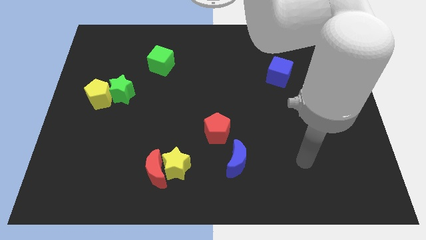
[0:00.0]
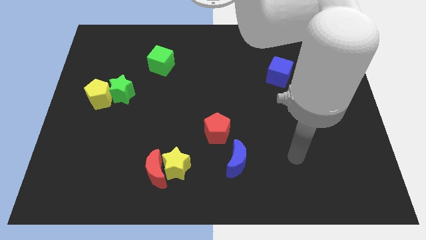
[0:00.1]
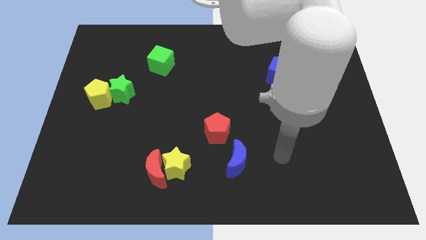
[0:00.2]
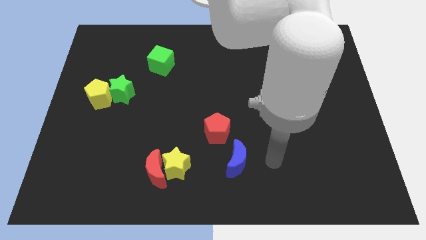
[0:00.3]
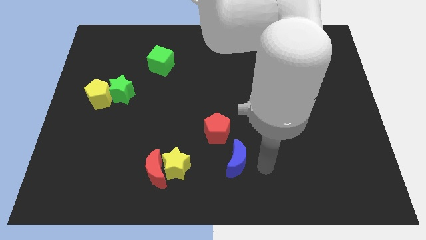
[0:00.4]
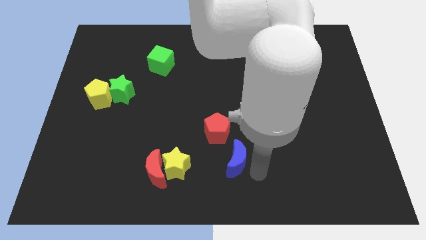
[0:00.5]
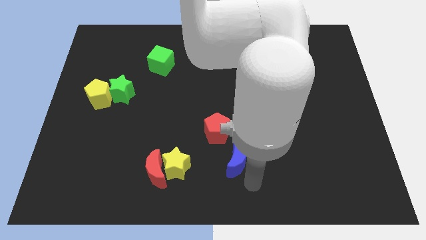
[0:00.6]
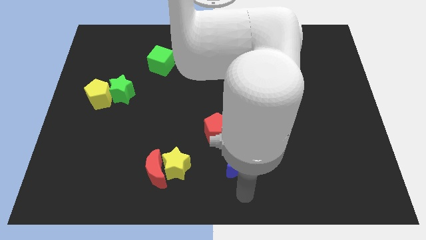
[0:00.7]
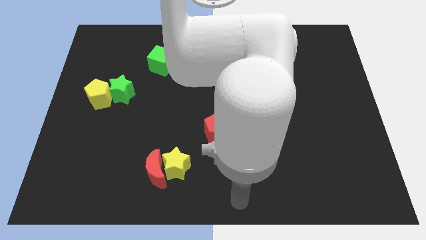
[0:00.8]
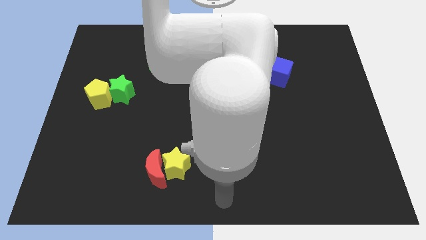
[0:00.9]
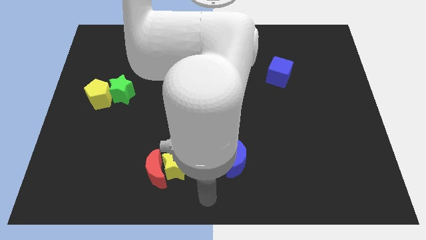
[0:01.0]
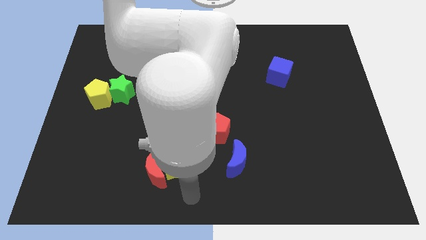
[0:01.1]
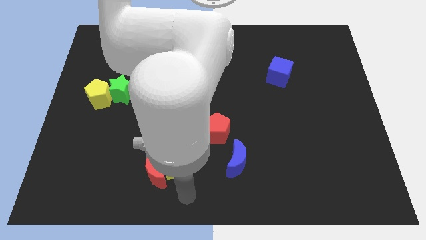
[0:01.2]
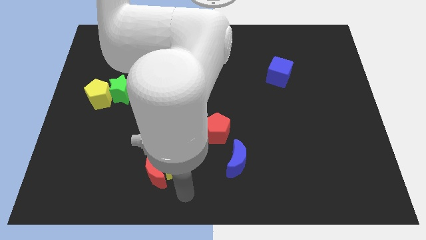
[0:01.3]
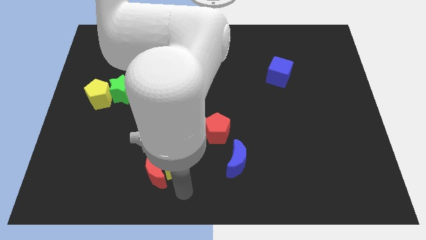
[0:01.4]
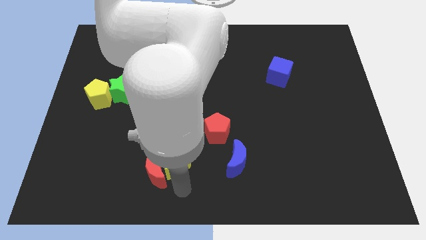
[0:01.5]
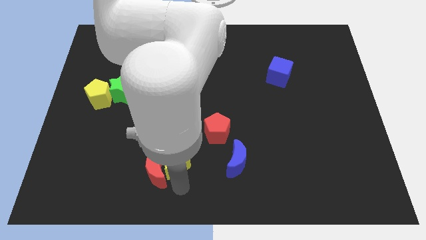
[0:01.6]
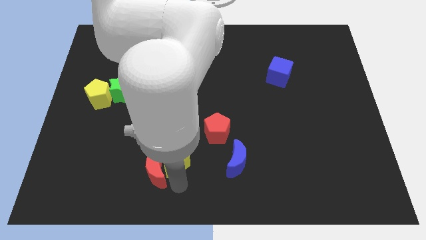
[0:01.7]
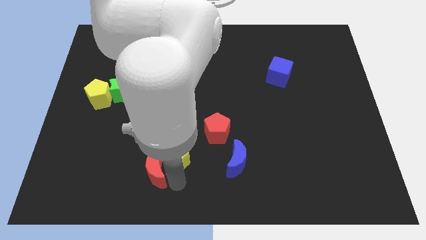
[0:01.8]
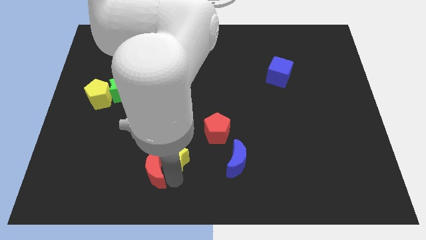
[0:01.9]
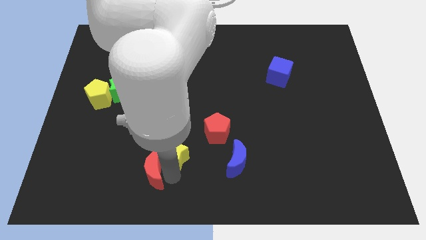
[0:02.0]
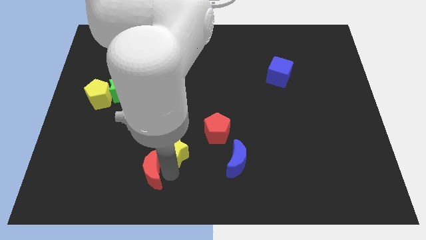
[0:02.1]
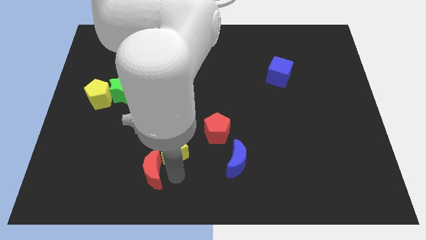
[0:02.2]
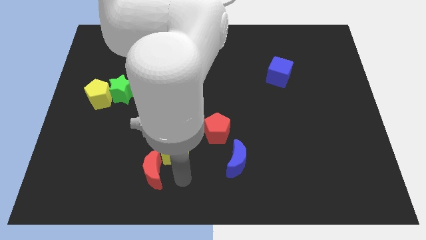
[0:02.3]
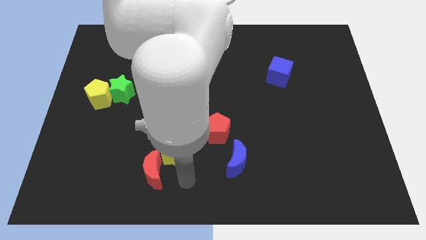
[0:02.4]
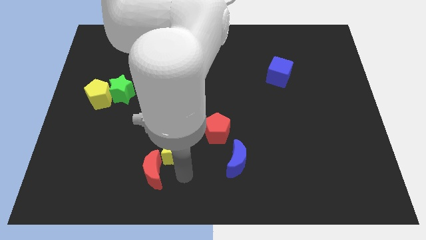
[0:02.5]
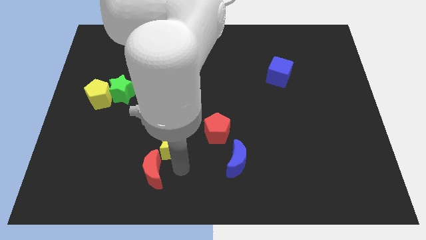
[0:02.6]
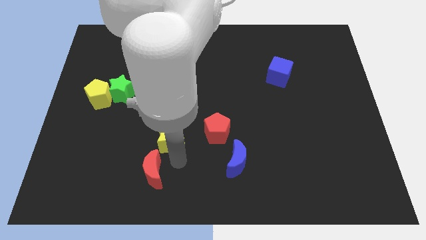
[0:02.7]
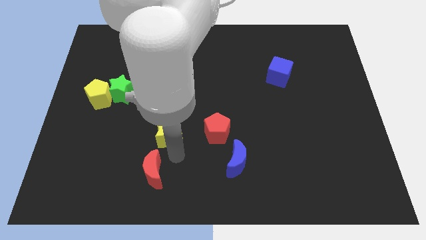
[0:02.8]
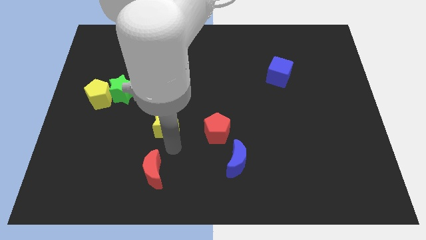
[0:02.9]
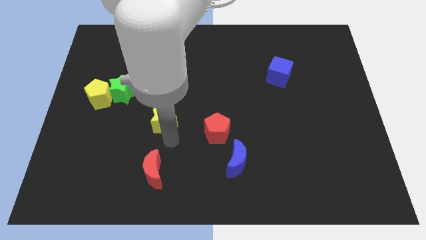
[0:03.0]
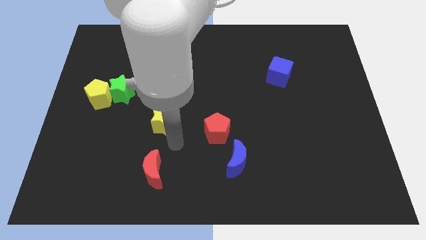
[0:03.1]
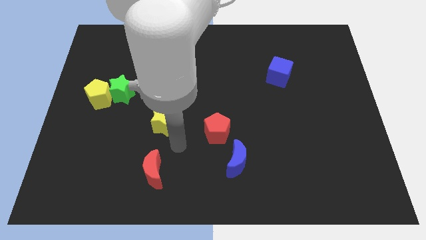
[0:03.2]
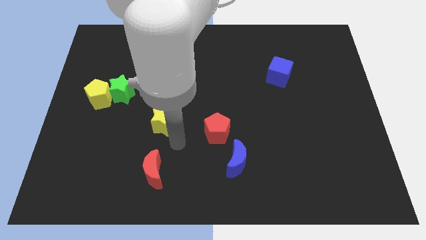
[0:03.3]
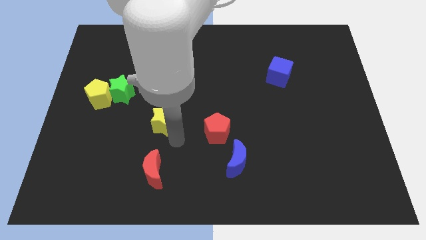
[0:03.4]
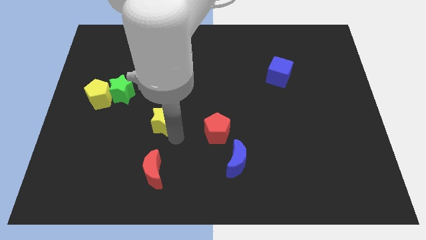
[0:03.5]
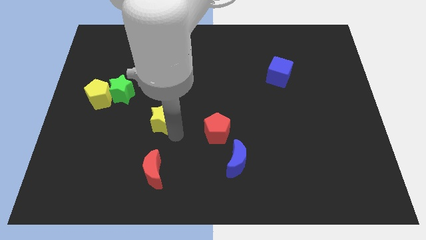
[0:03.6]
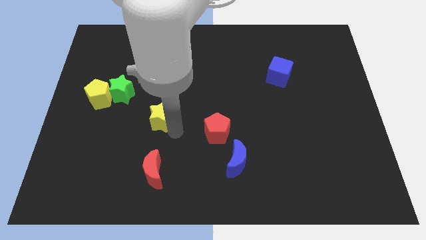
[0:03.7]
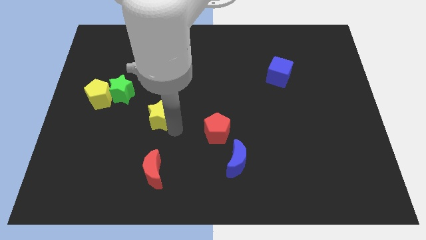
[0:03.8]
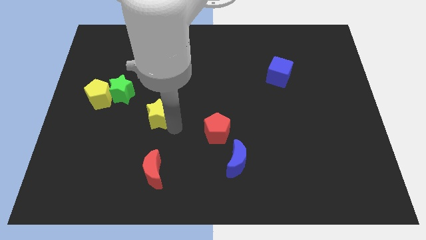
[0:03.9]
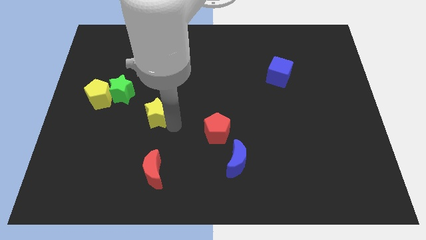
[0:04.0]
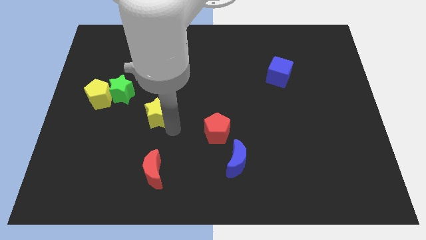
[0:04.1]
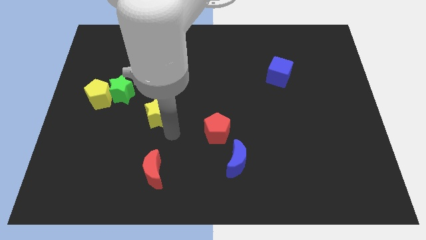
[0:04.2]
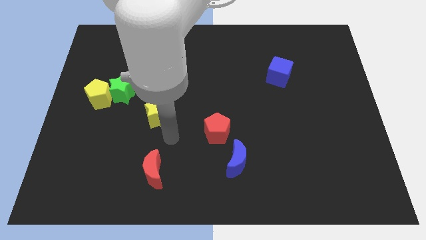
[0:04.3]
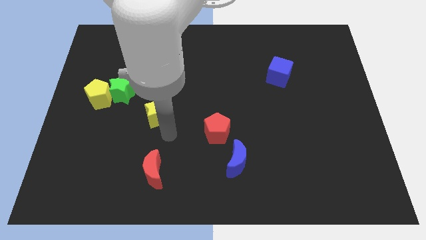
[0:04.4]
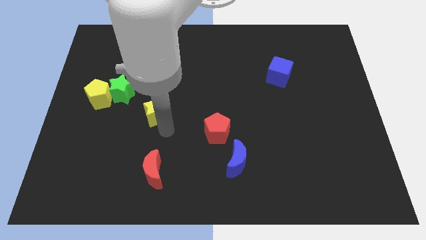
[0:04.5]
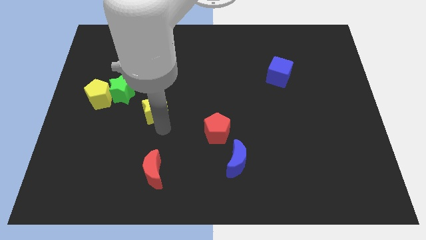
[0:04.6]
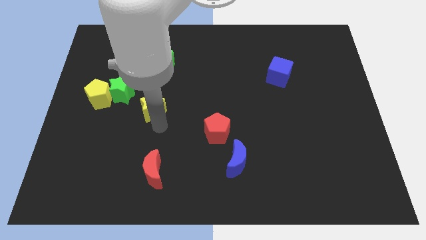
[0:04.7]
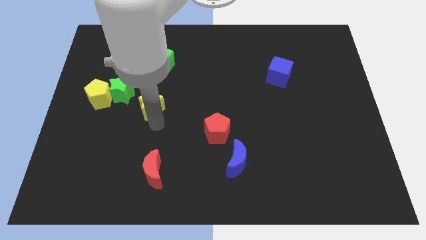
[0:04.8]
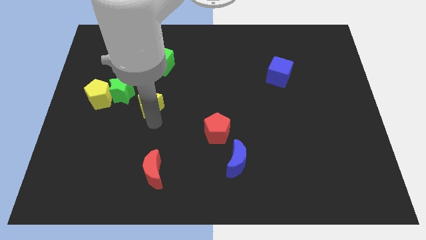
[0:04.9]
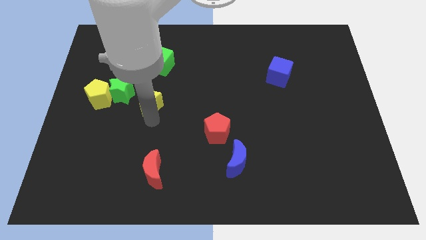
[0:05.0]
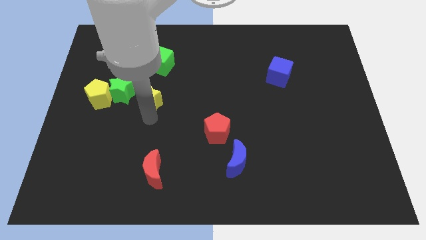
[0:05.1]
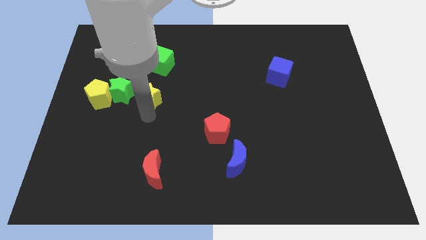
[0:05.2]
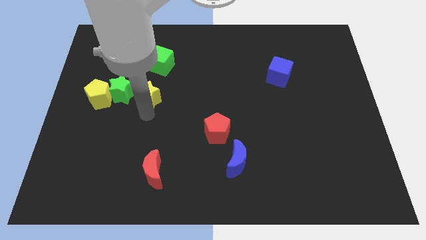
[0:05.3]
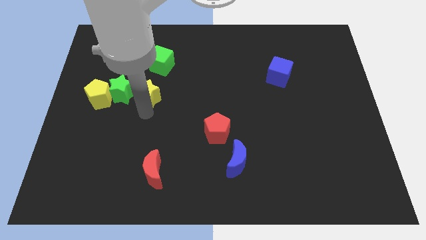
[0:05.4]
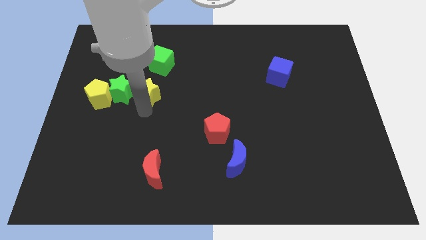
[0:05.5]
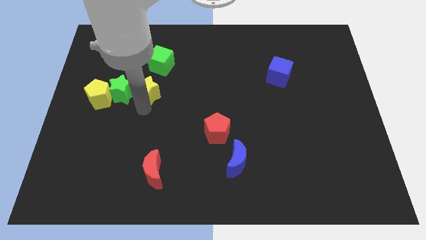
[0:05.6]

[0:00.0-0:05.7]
move the yellow star diagonally up and to the right of the green star

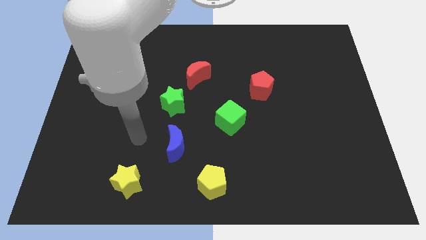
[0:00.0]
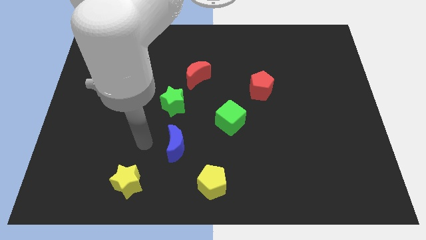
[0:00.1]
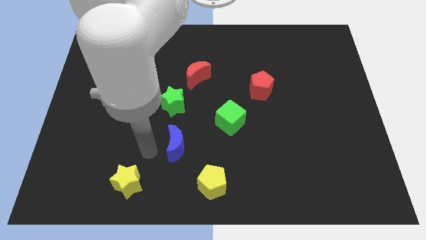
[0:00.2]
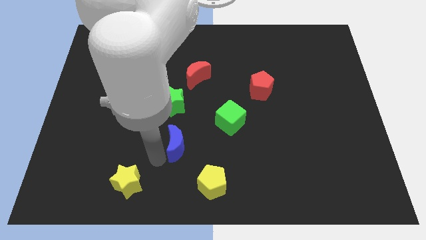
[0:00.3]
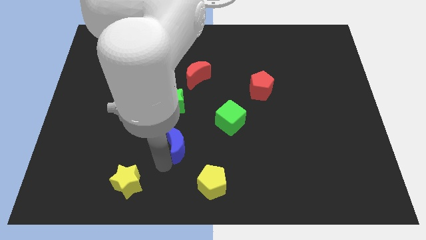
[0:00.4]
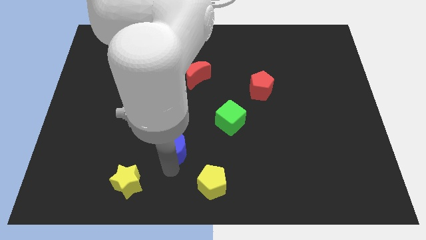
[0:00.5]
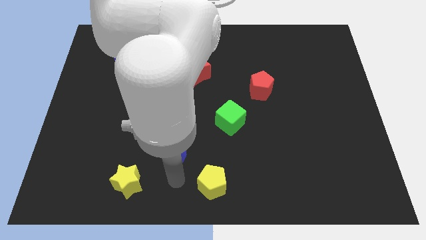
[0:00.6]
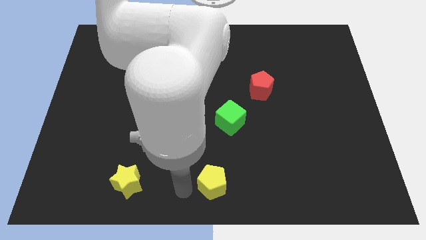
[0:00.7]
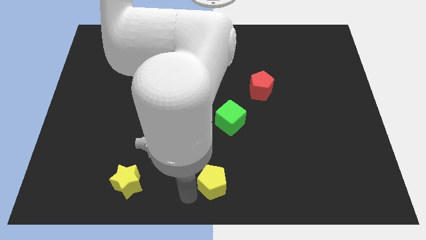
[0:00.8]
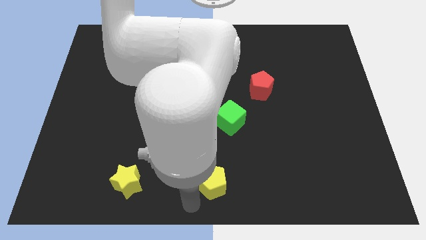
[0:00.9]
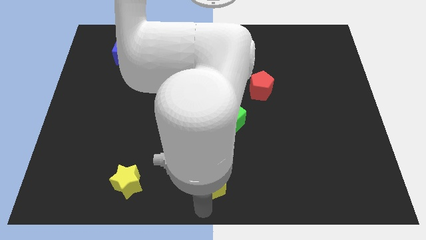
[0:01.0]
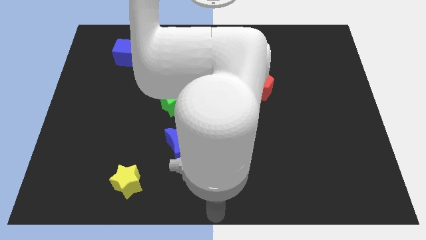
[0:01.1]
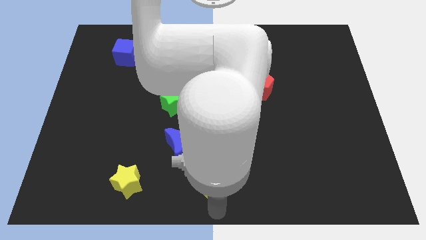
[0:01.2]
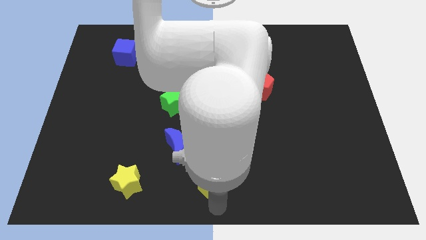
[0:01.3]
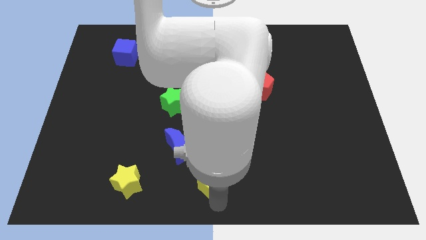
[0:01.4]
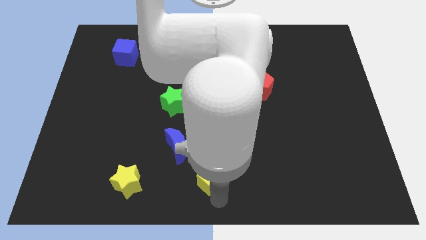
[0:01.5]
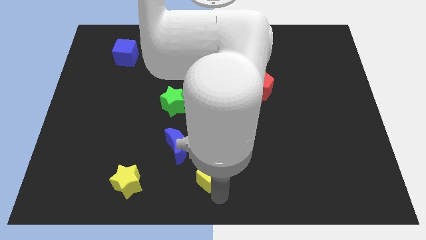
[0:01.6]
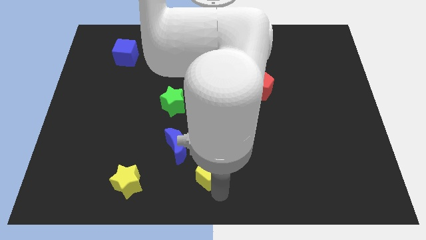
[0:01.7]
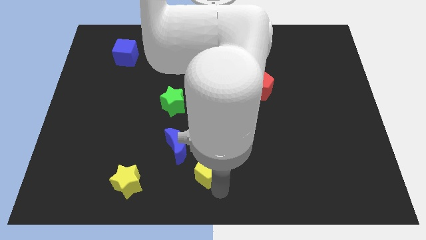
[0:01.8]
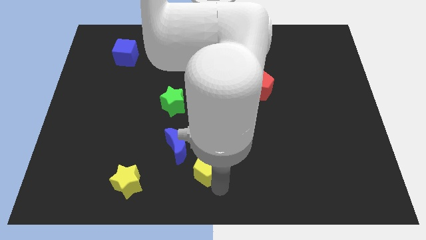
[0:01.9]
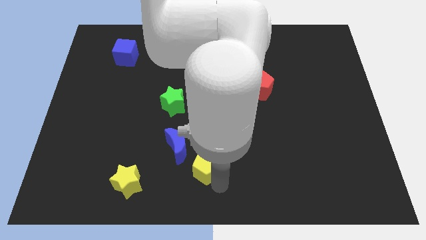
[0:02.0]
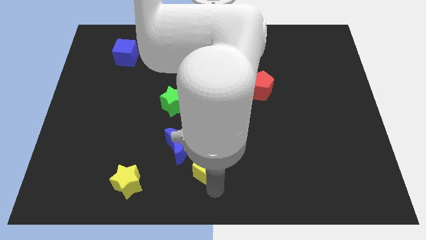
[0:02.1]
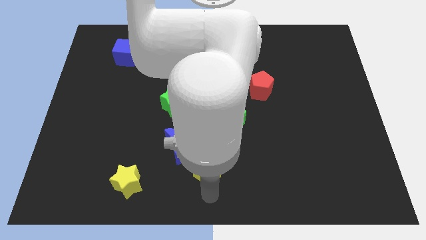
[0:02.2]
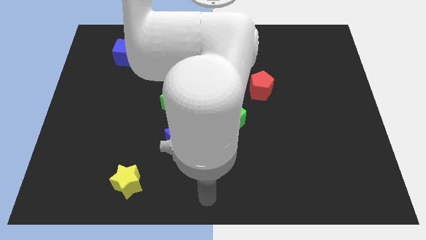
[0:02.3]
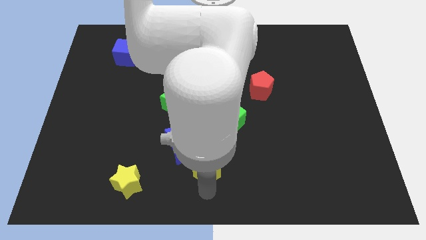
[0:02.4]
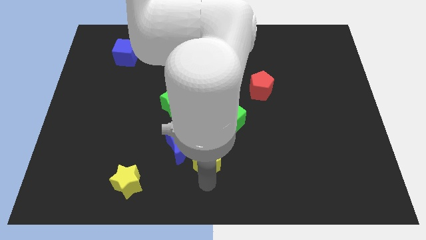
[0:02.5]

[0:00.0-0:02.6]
put the yellow pentagon to the bottom left side of the green cube
